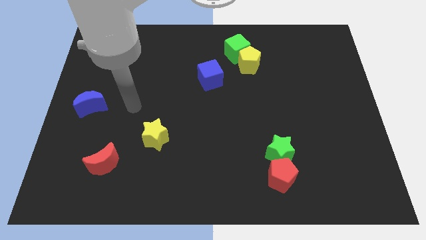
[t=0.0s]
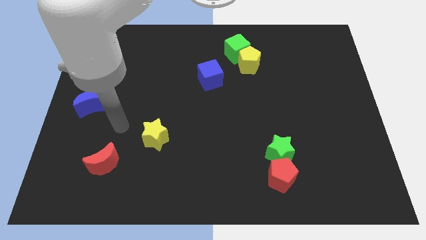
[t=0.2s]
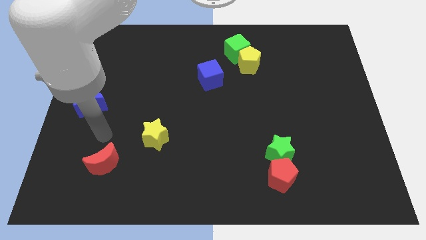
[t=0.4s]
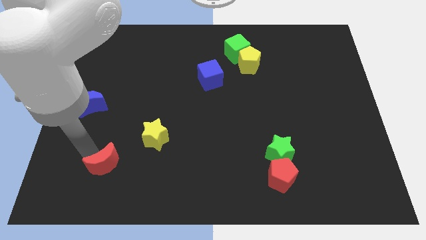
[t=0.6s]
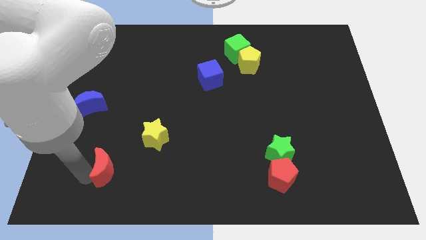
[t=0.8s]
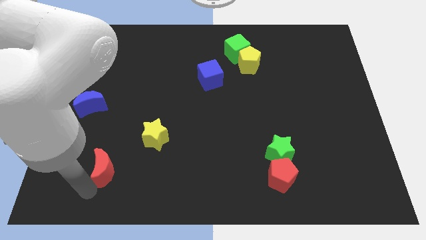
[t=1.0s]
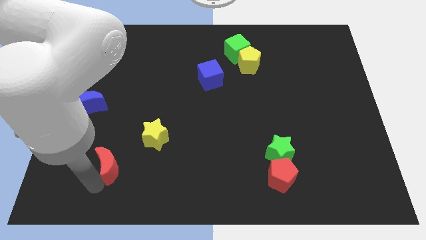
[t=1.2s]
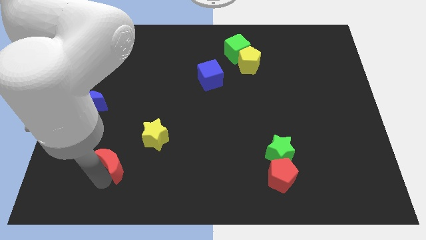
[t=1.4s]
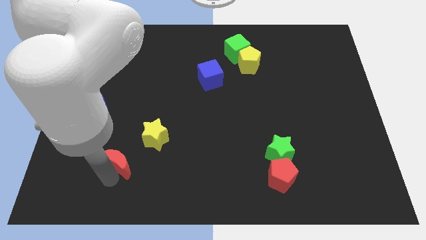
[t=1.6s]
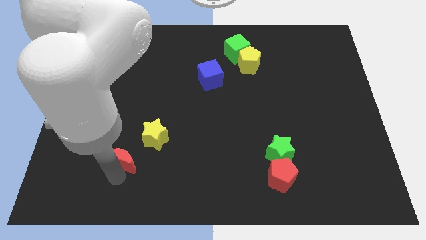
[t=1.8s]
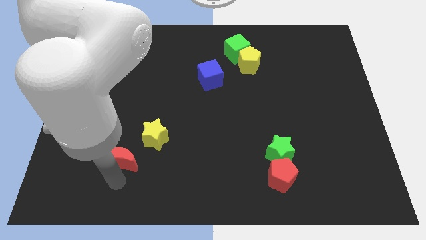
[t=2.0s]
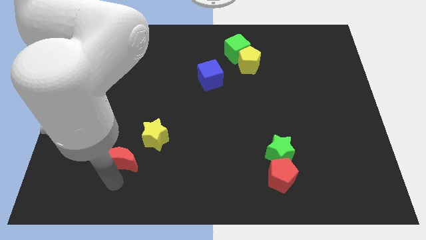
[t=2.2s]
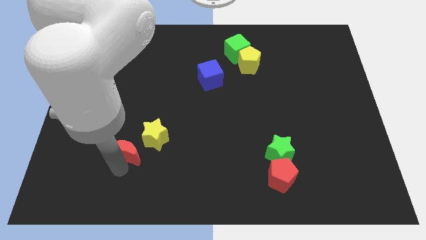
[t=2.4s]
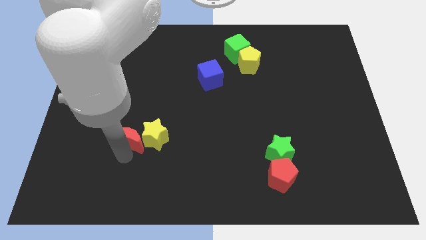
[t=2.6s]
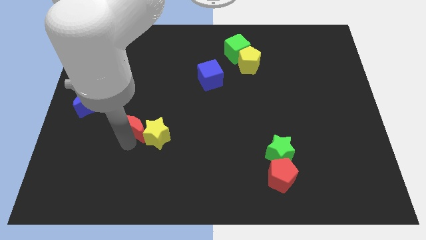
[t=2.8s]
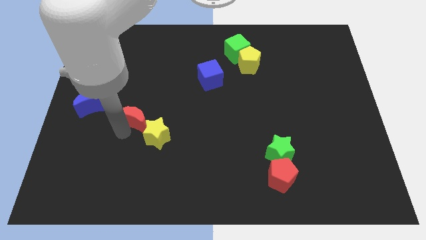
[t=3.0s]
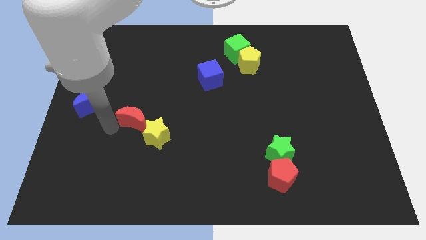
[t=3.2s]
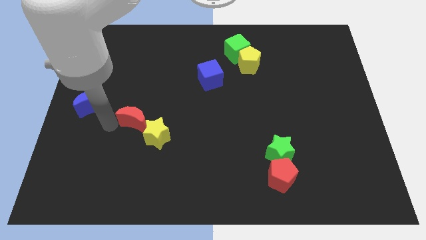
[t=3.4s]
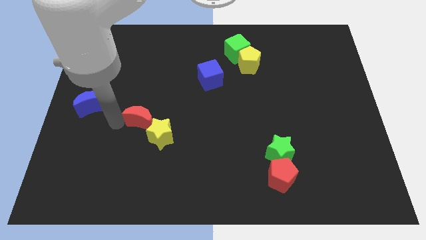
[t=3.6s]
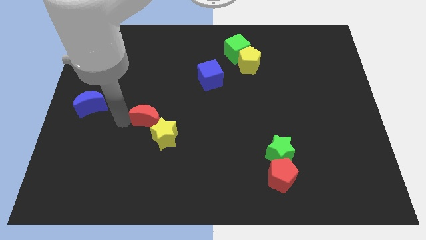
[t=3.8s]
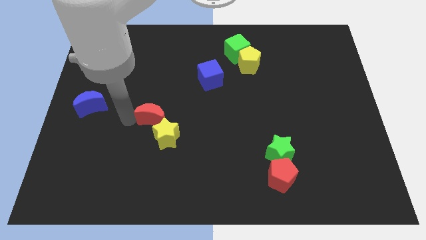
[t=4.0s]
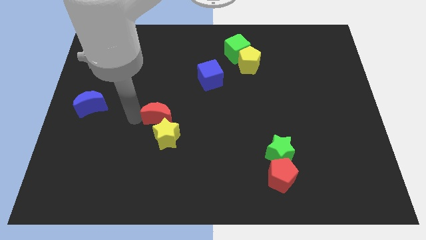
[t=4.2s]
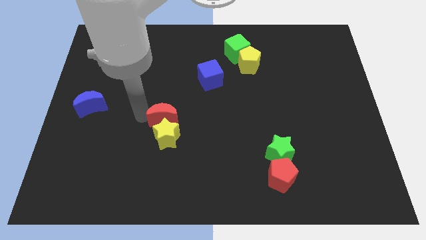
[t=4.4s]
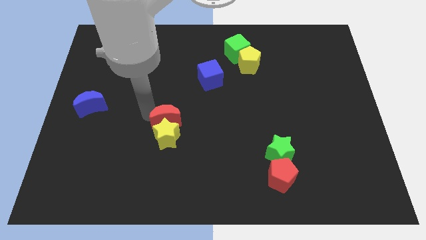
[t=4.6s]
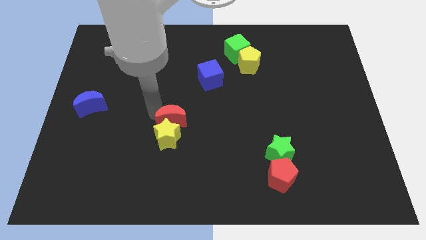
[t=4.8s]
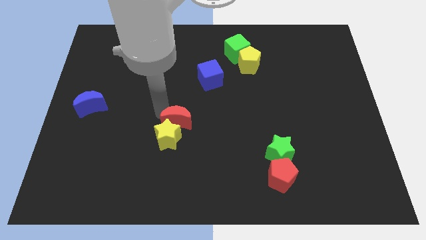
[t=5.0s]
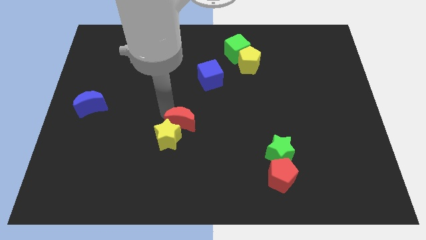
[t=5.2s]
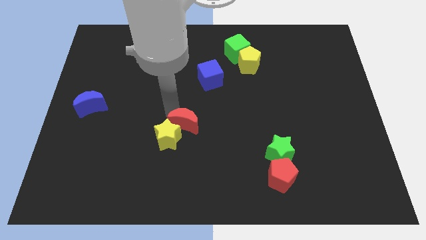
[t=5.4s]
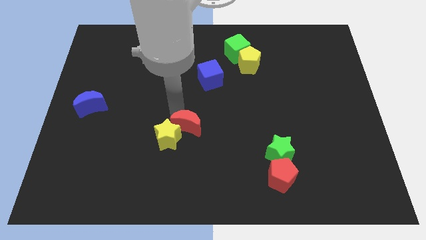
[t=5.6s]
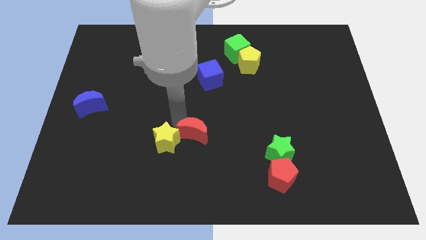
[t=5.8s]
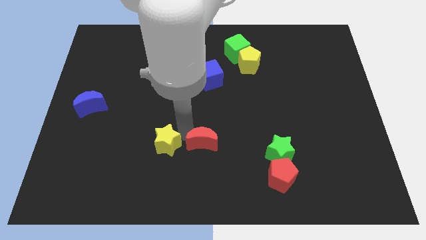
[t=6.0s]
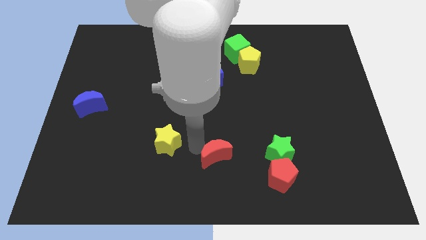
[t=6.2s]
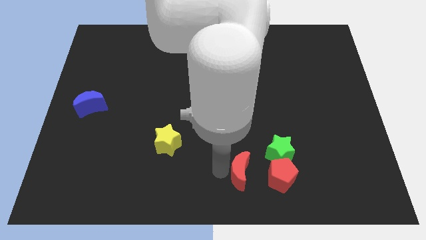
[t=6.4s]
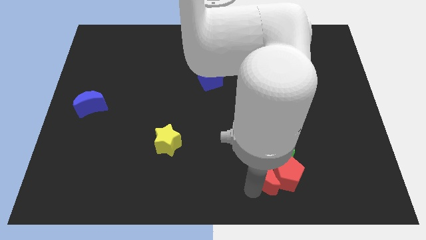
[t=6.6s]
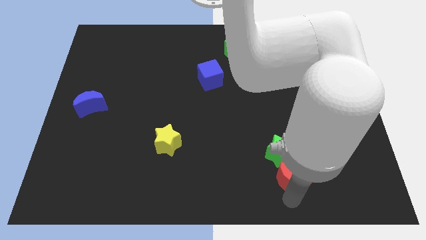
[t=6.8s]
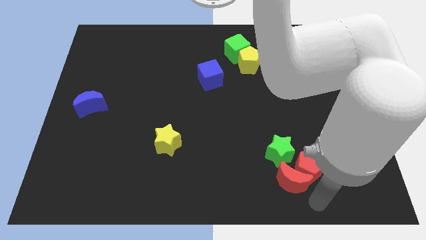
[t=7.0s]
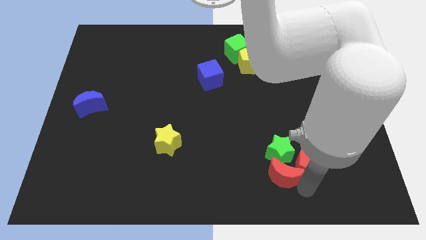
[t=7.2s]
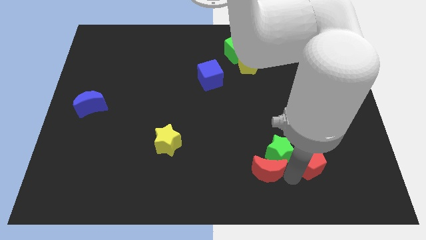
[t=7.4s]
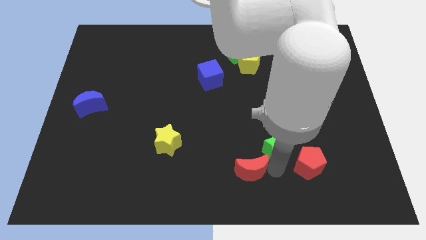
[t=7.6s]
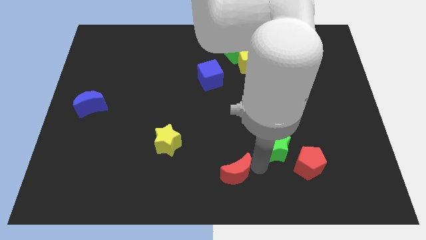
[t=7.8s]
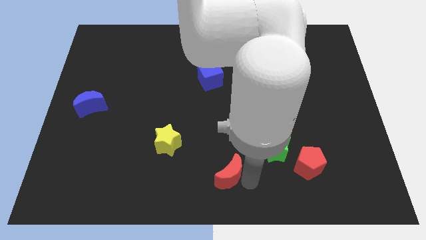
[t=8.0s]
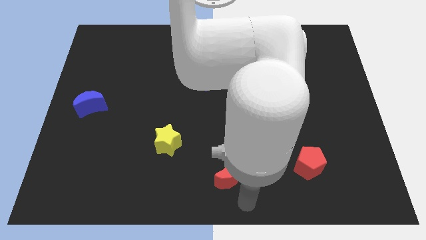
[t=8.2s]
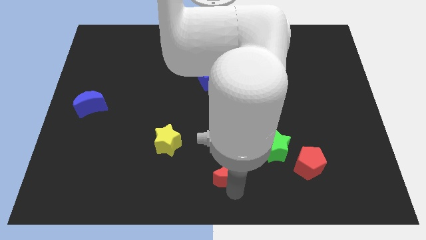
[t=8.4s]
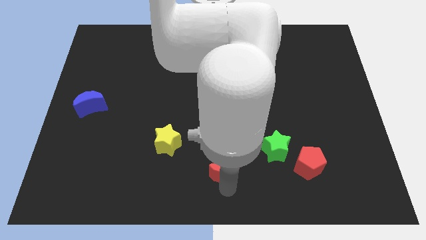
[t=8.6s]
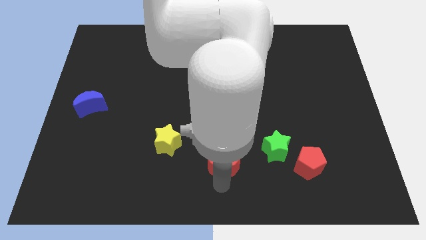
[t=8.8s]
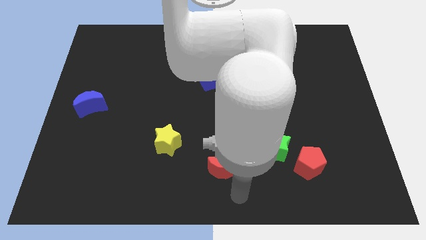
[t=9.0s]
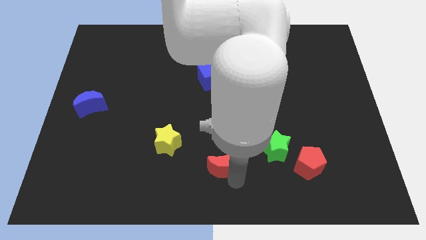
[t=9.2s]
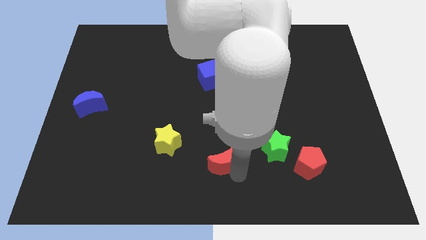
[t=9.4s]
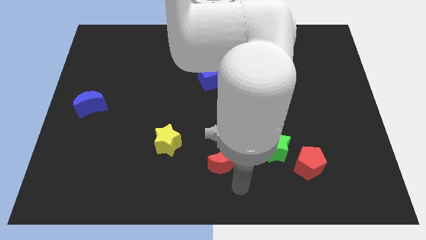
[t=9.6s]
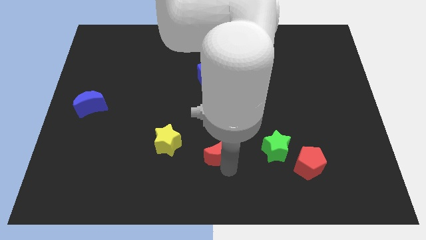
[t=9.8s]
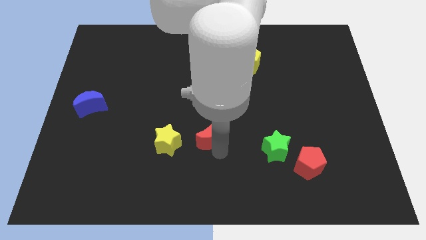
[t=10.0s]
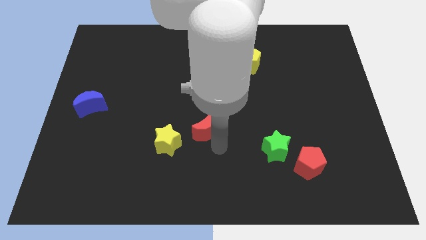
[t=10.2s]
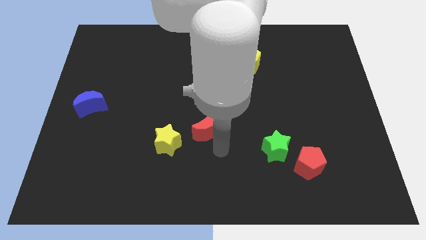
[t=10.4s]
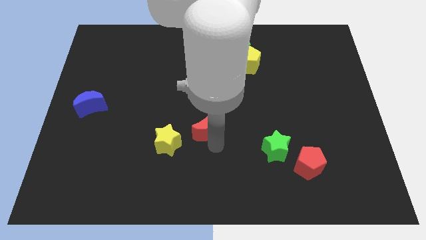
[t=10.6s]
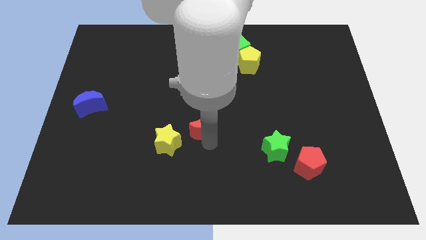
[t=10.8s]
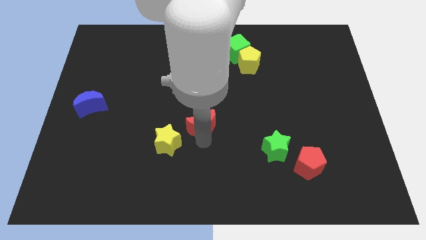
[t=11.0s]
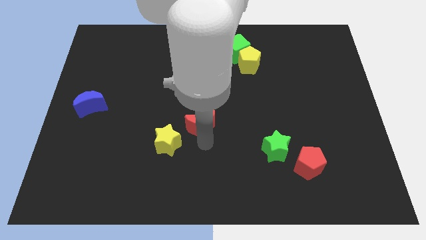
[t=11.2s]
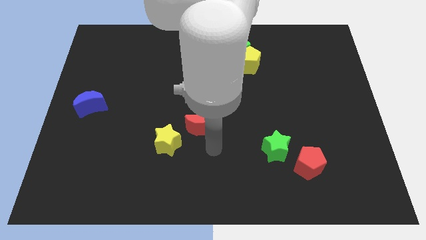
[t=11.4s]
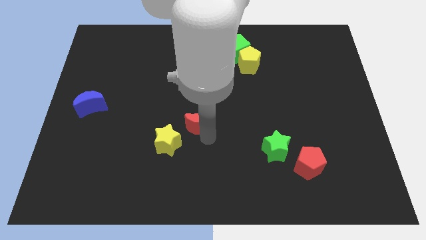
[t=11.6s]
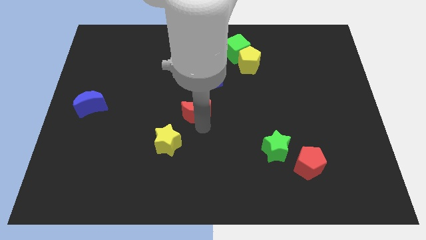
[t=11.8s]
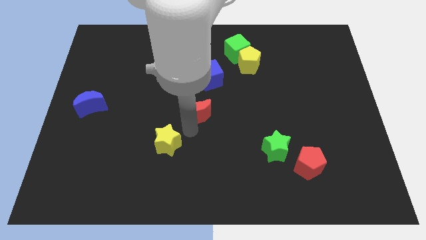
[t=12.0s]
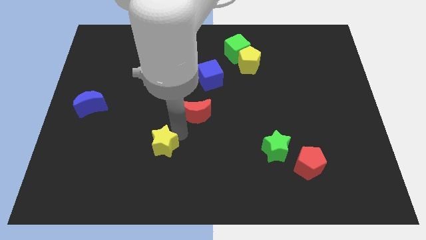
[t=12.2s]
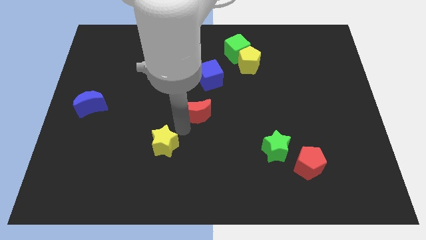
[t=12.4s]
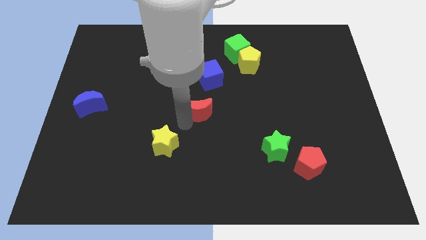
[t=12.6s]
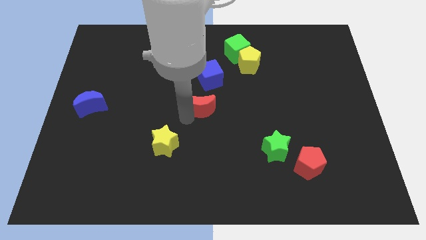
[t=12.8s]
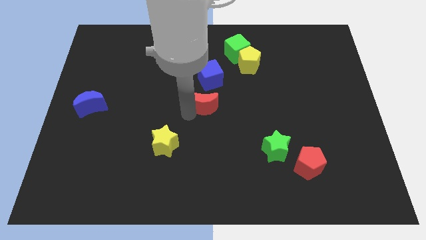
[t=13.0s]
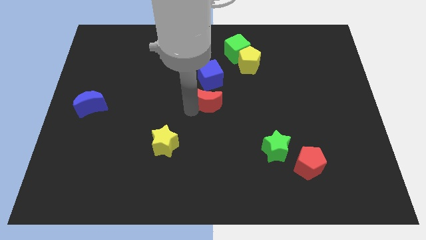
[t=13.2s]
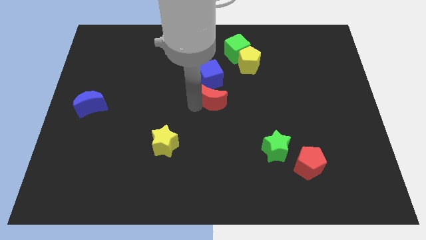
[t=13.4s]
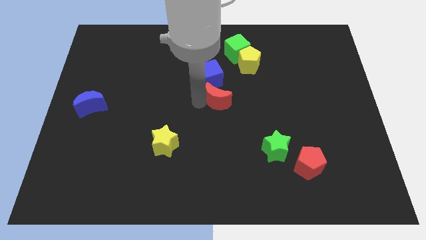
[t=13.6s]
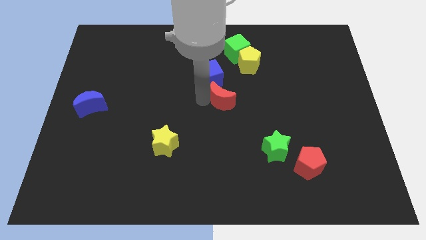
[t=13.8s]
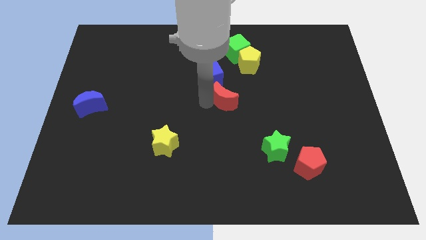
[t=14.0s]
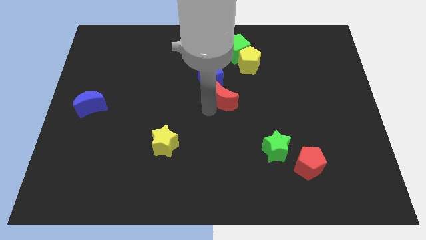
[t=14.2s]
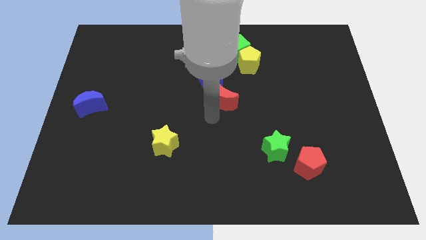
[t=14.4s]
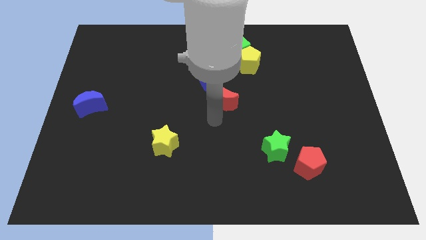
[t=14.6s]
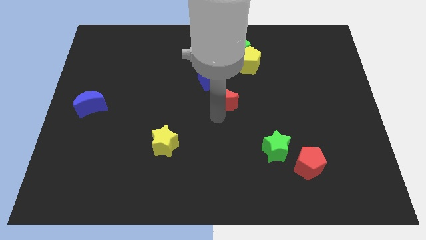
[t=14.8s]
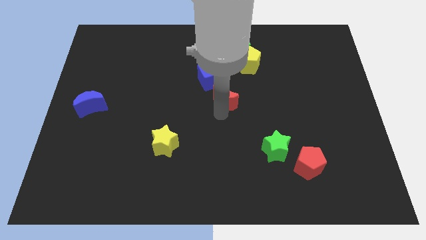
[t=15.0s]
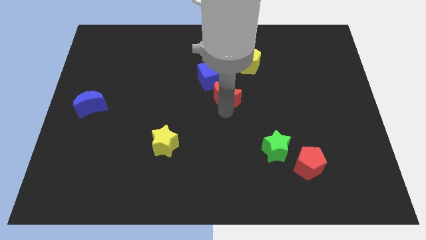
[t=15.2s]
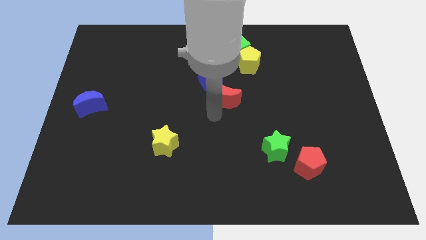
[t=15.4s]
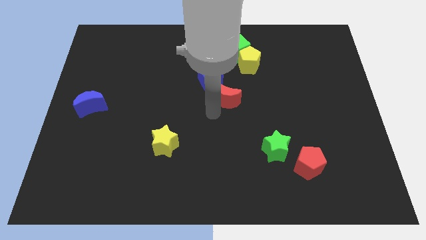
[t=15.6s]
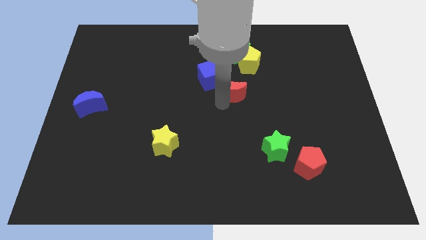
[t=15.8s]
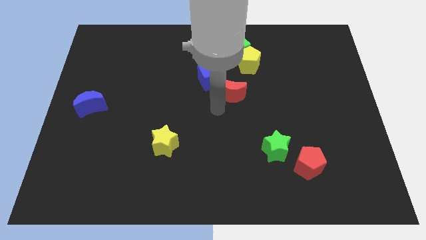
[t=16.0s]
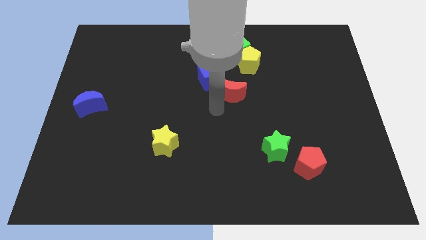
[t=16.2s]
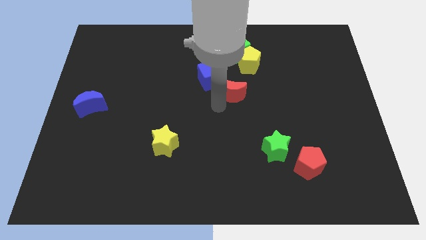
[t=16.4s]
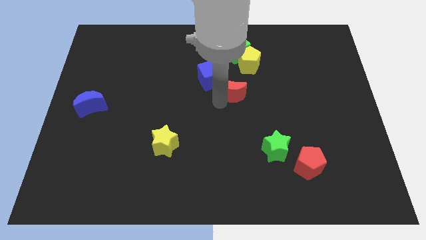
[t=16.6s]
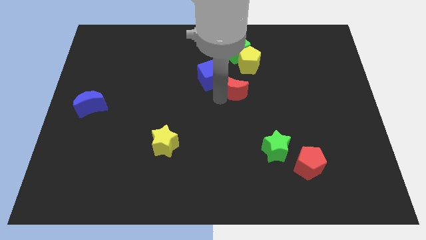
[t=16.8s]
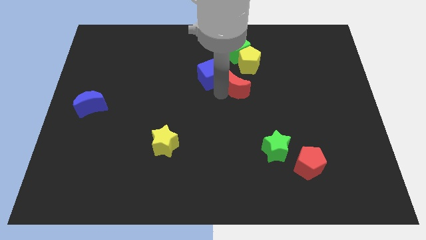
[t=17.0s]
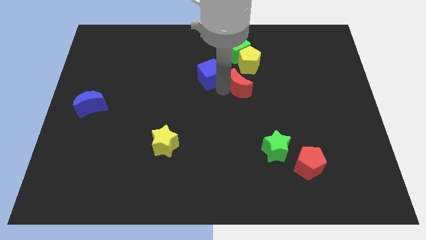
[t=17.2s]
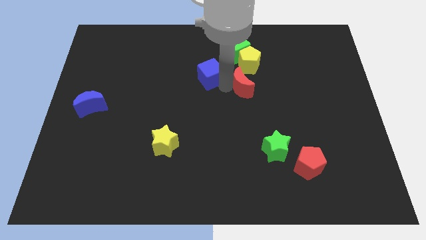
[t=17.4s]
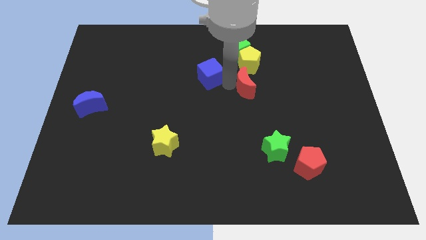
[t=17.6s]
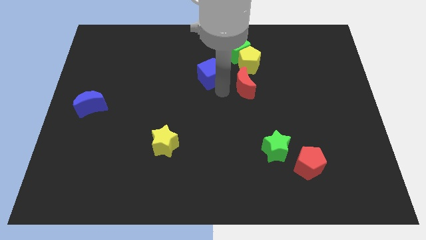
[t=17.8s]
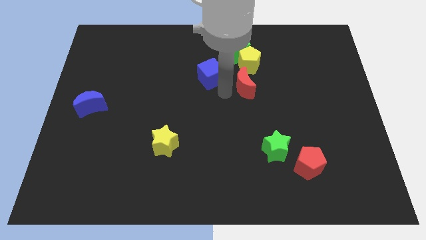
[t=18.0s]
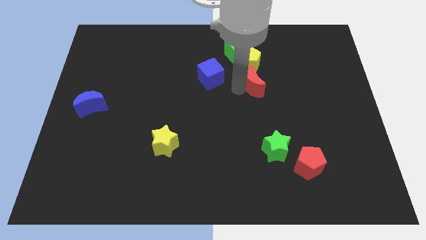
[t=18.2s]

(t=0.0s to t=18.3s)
slide the red moon to the bottom right of the yellow pentagon
